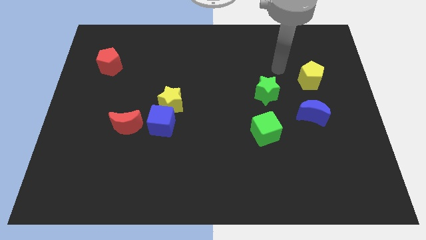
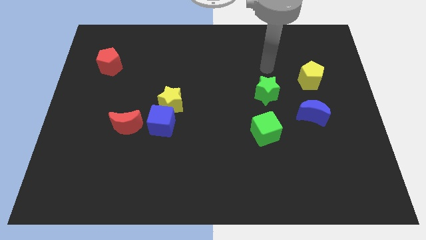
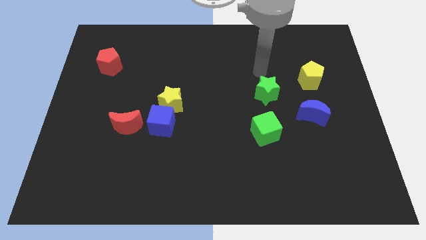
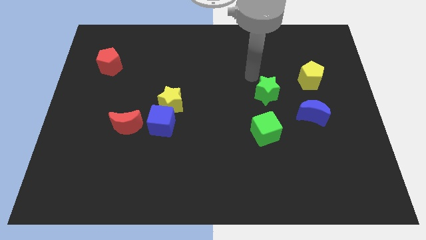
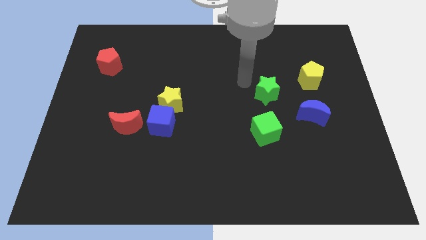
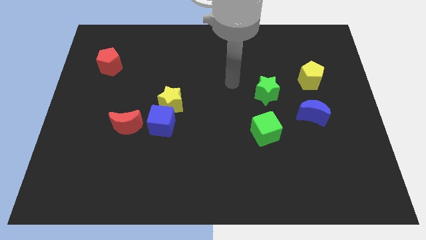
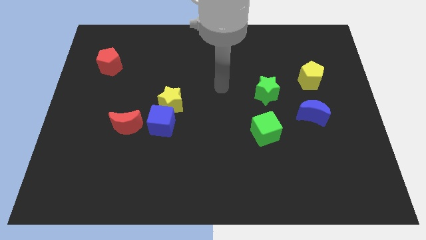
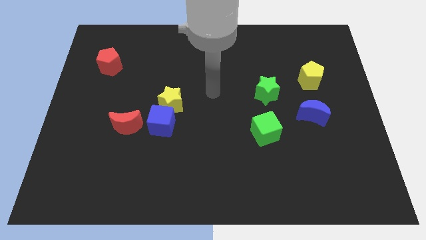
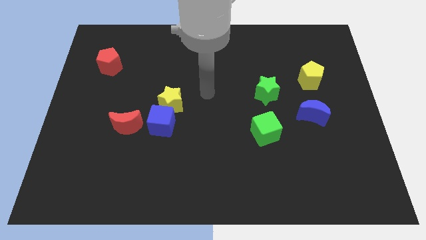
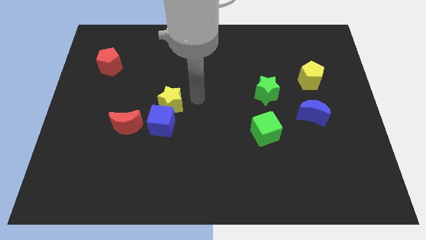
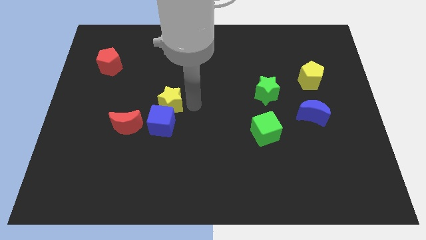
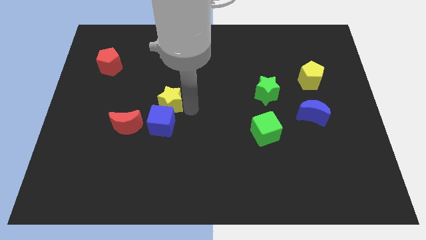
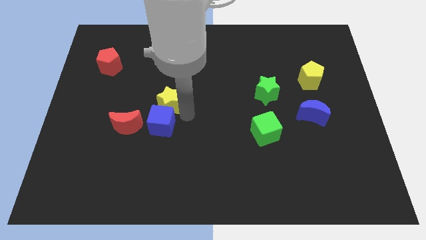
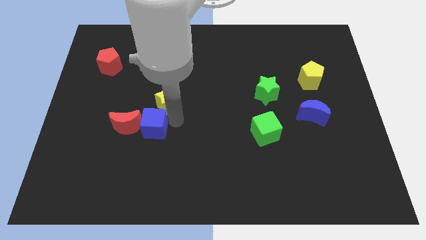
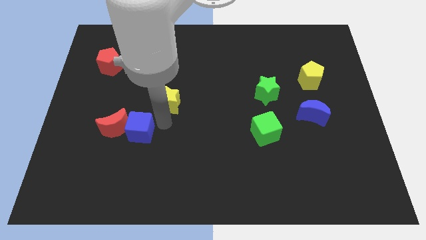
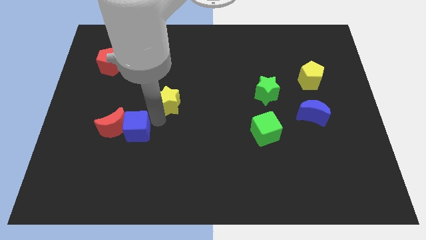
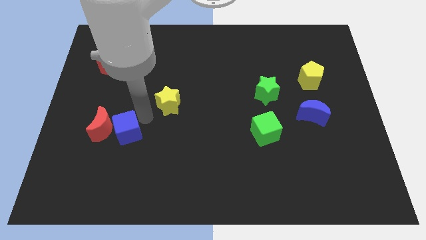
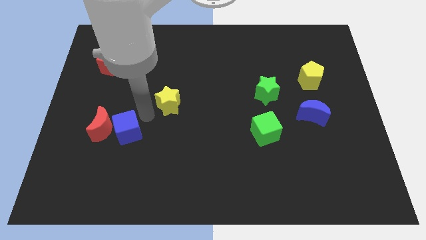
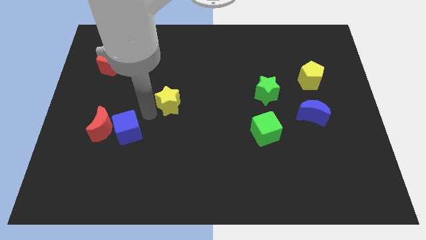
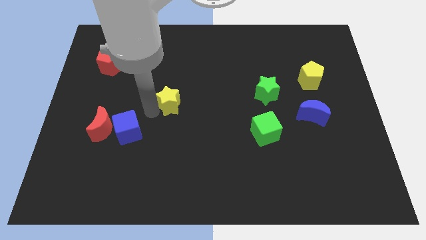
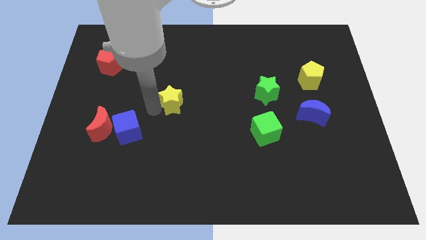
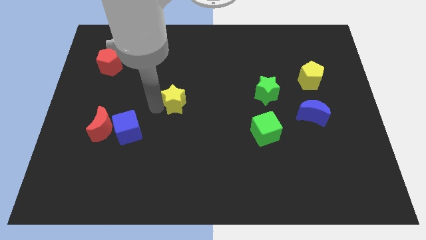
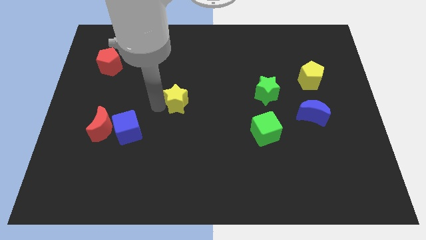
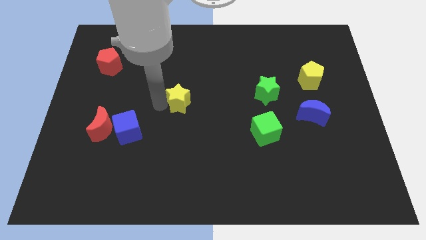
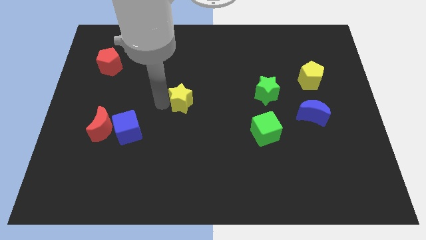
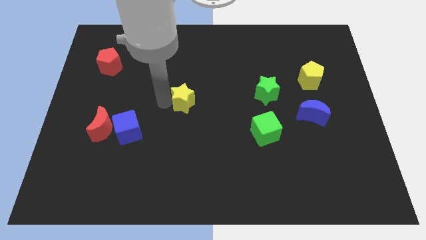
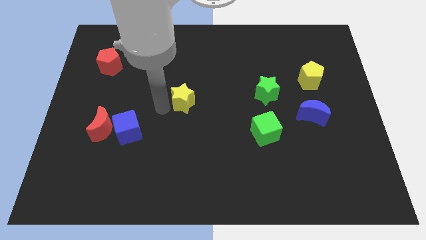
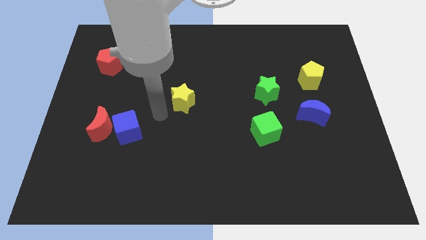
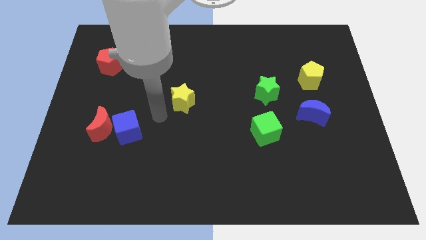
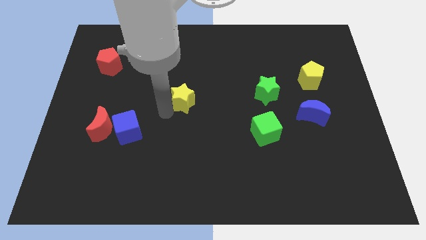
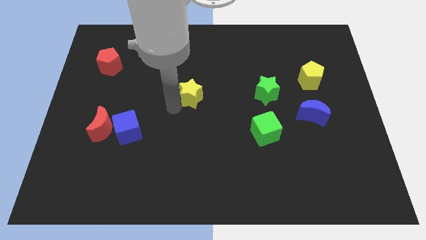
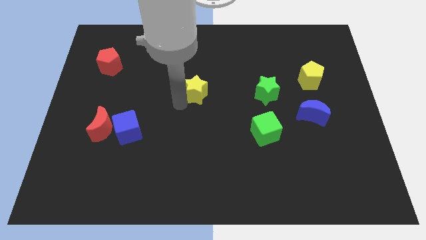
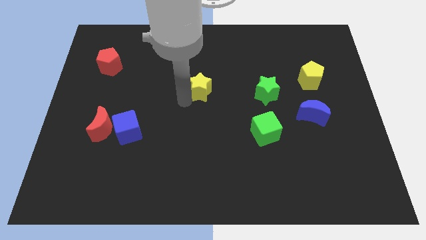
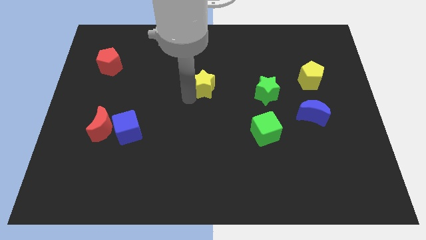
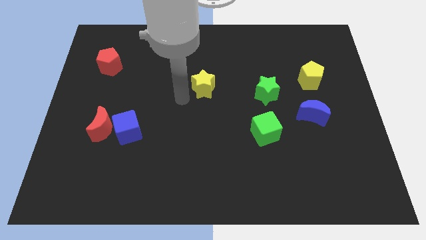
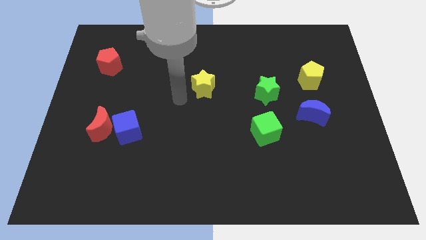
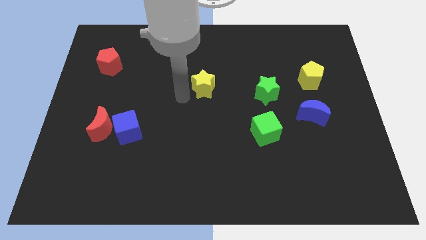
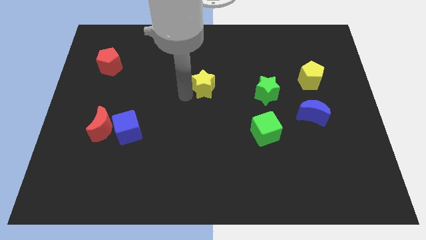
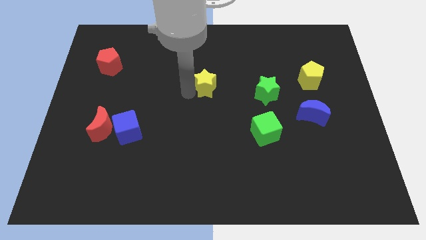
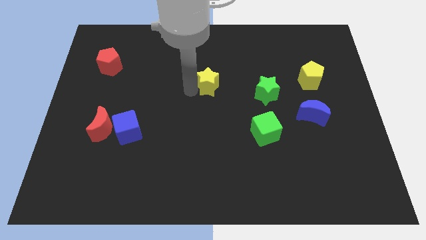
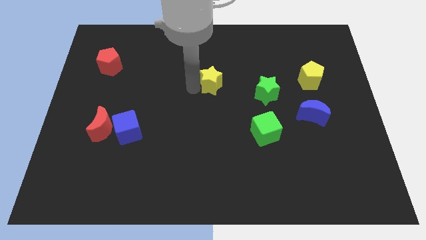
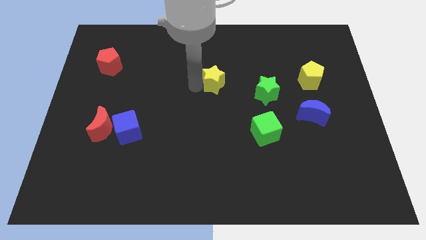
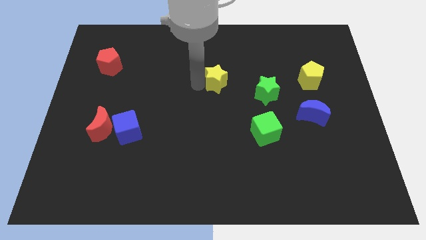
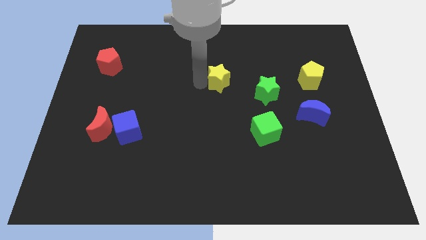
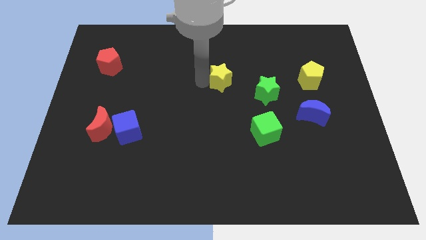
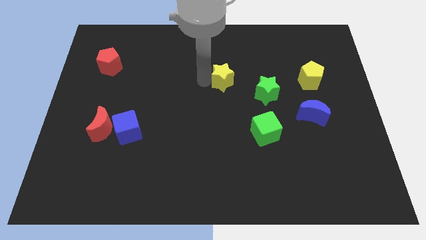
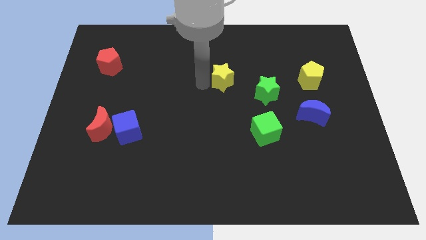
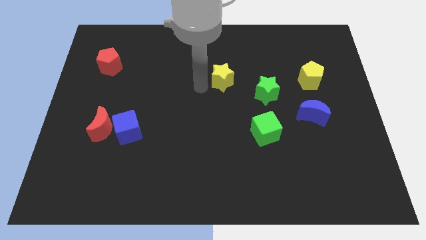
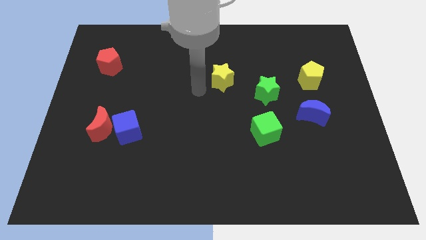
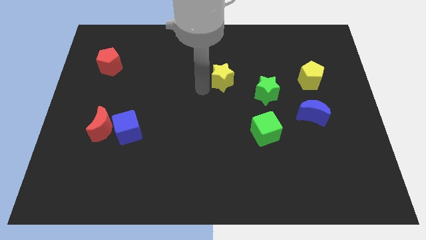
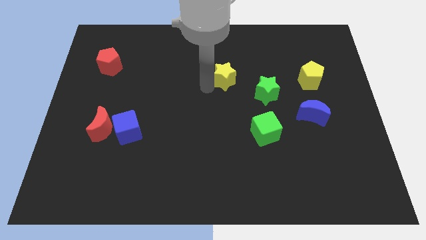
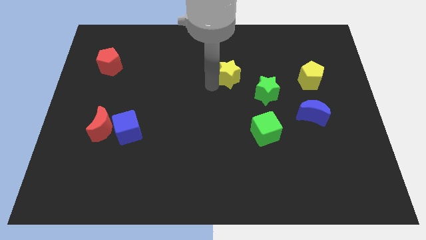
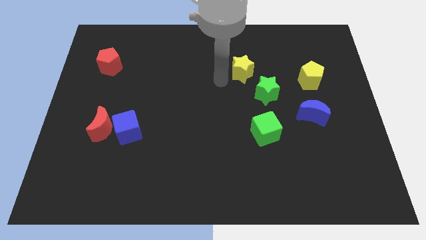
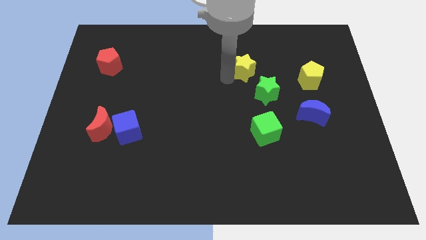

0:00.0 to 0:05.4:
push the yellow star above the green star
